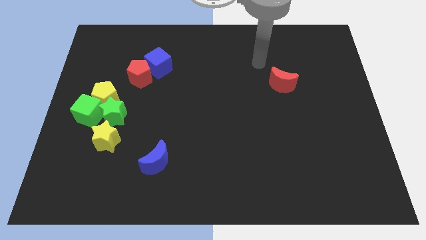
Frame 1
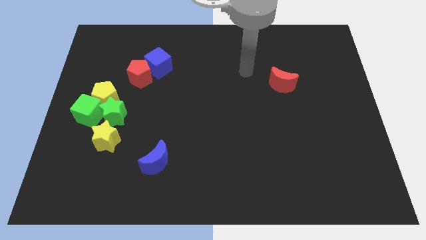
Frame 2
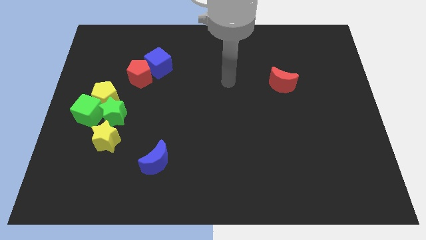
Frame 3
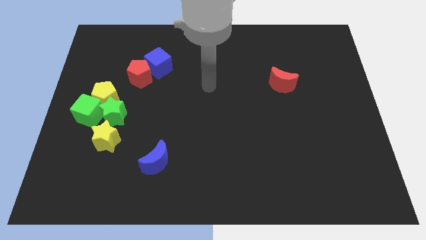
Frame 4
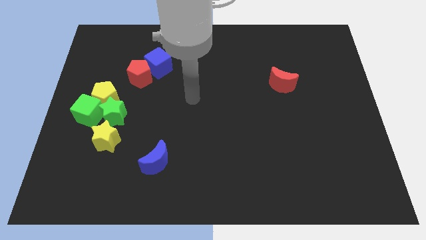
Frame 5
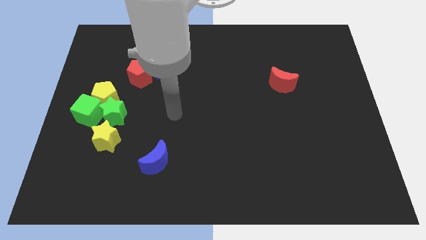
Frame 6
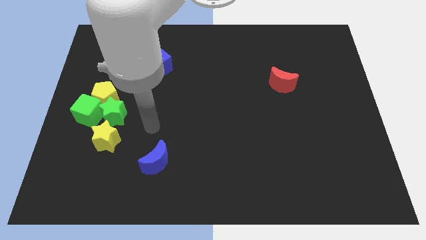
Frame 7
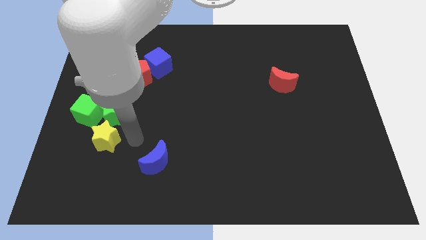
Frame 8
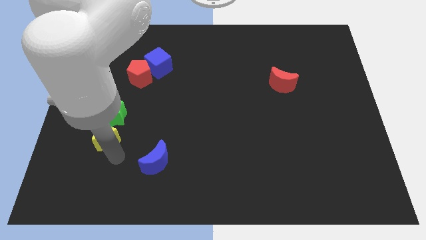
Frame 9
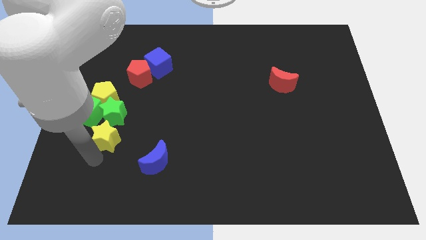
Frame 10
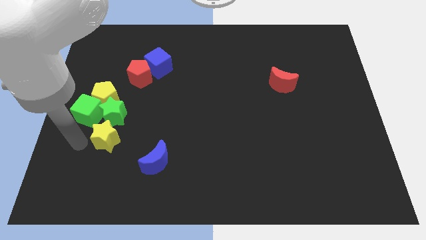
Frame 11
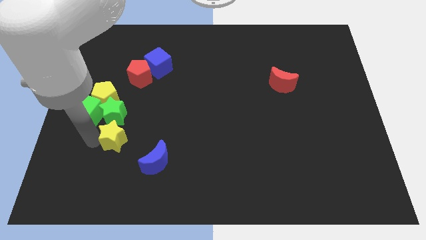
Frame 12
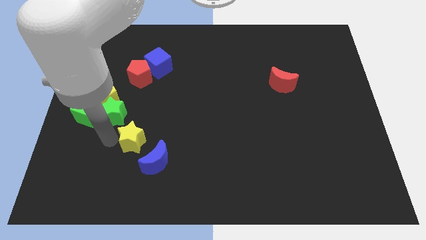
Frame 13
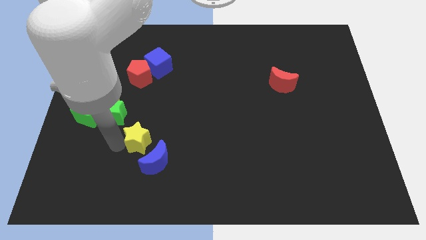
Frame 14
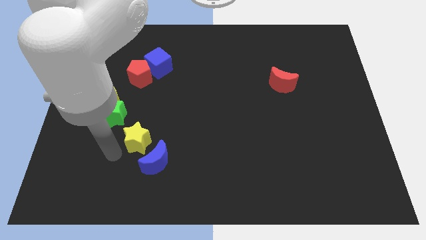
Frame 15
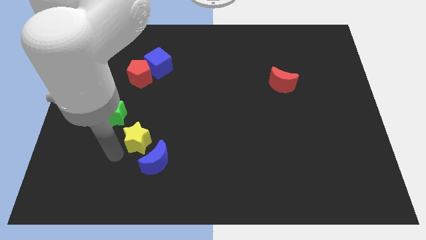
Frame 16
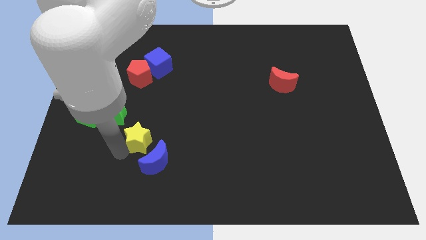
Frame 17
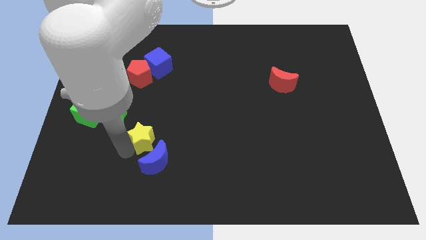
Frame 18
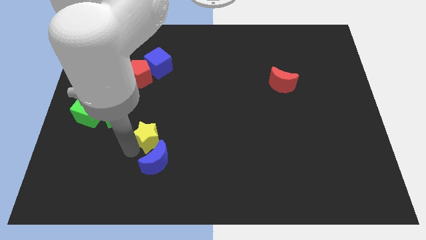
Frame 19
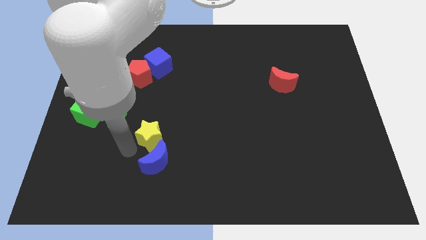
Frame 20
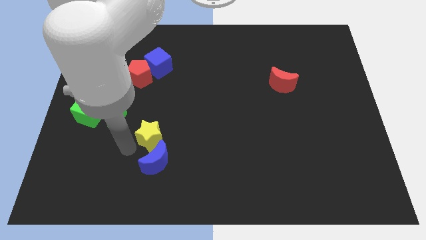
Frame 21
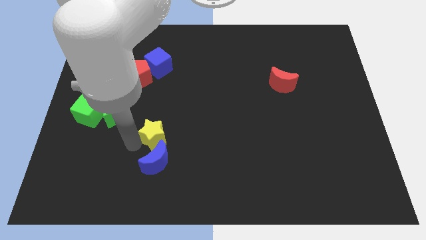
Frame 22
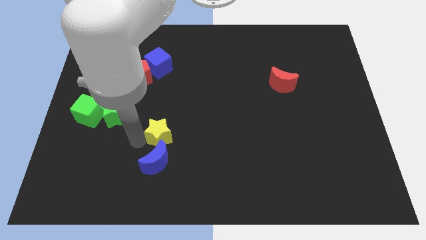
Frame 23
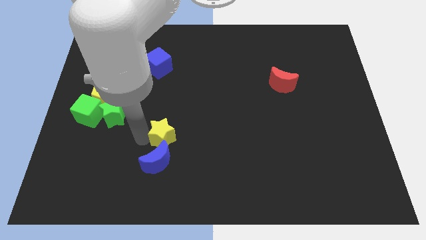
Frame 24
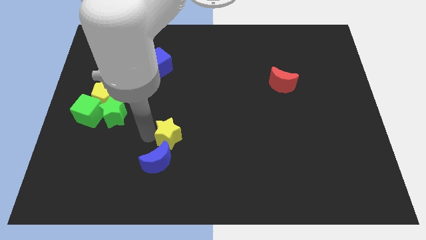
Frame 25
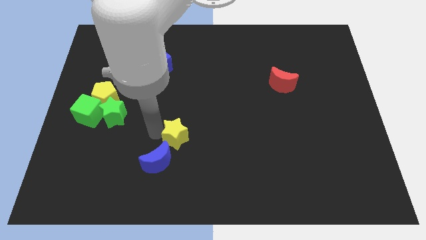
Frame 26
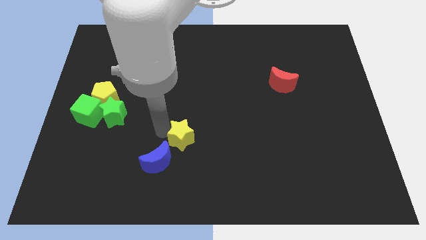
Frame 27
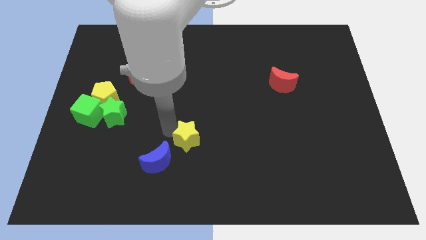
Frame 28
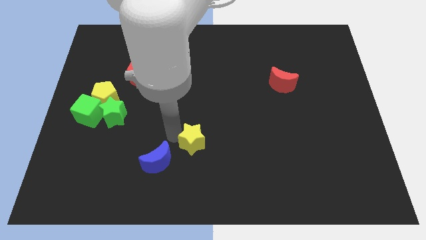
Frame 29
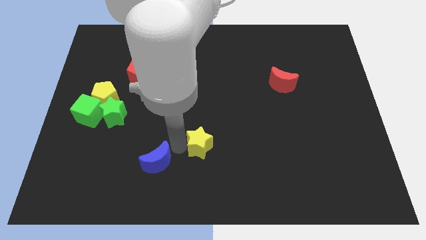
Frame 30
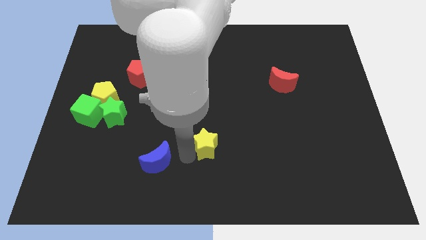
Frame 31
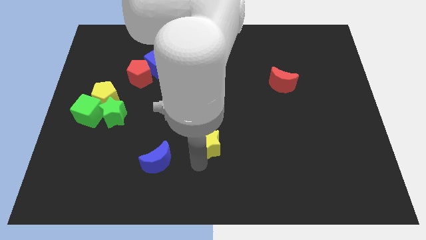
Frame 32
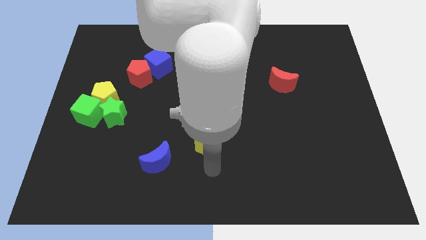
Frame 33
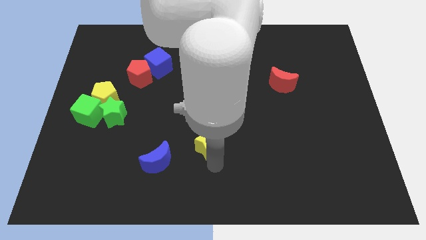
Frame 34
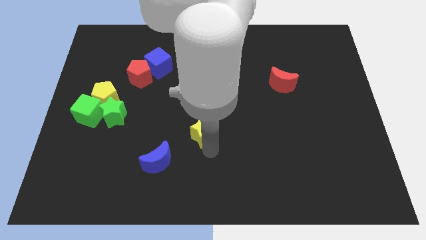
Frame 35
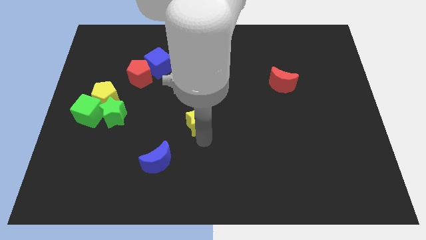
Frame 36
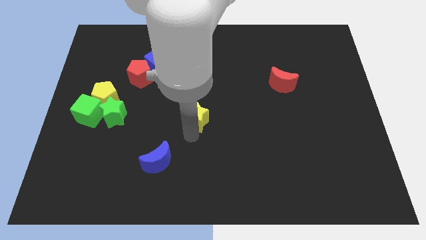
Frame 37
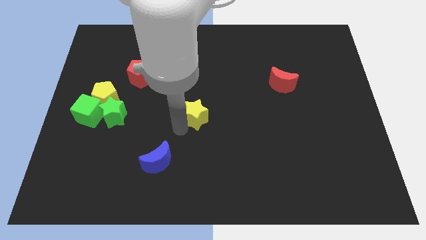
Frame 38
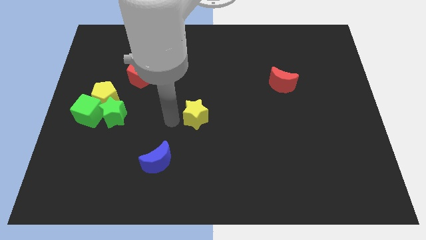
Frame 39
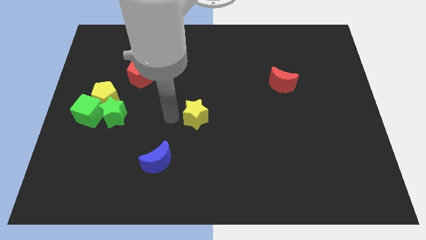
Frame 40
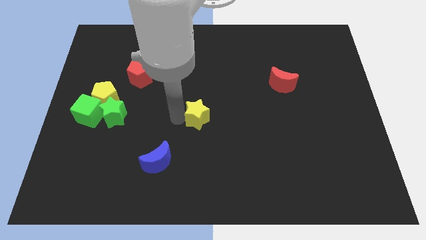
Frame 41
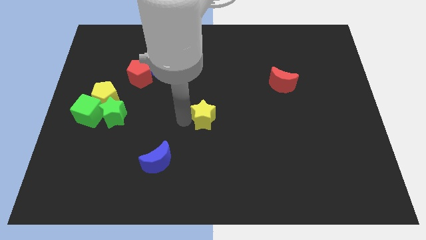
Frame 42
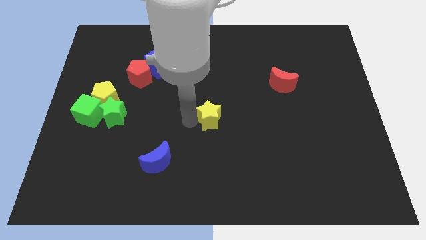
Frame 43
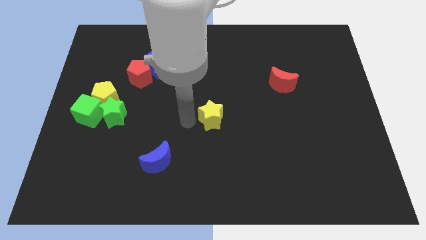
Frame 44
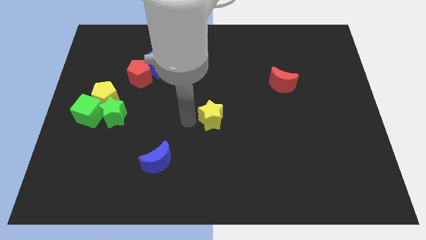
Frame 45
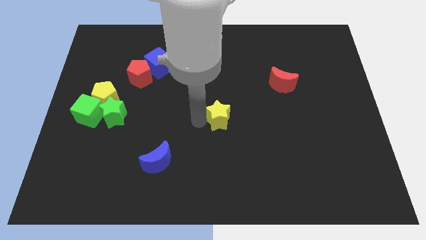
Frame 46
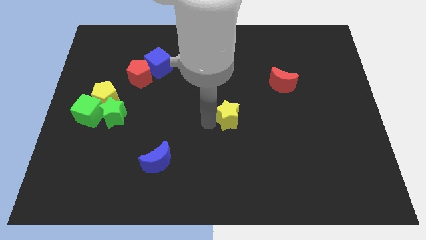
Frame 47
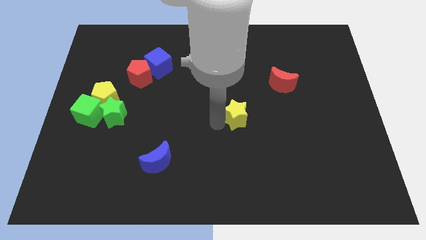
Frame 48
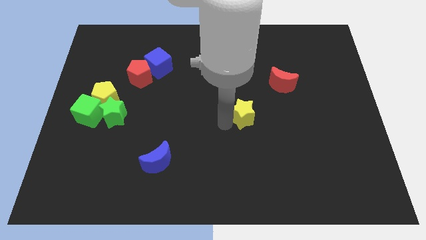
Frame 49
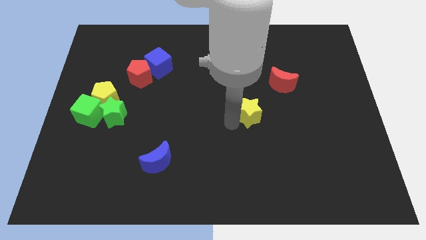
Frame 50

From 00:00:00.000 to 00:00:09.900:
move the yellow star diagonally down and to the left of the red moon

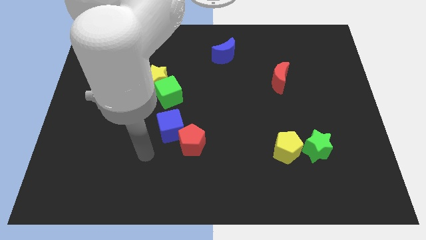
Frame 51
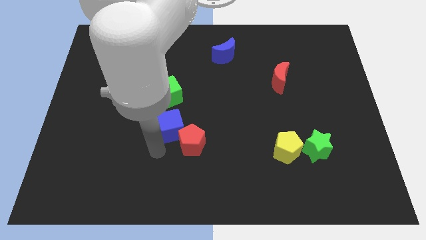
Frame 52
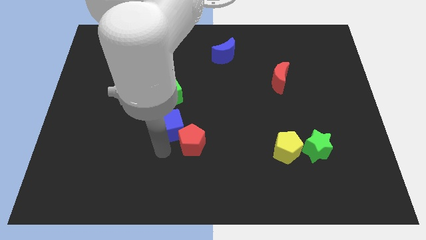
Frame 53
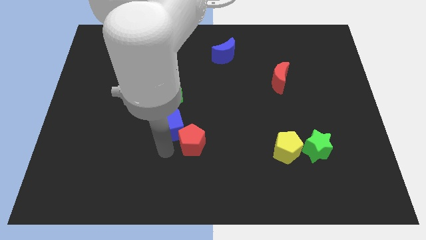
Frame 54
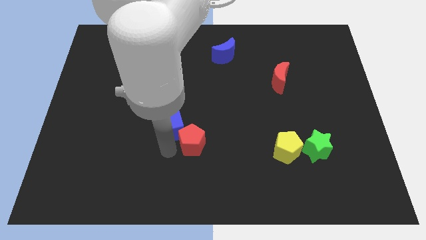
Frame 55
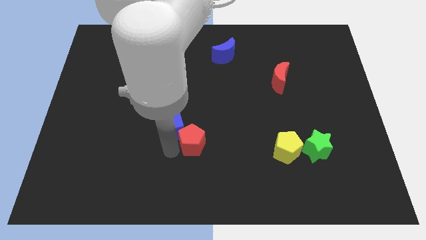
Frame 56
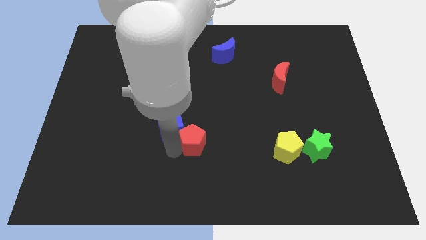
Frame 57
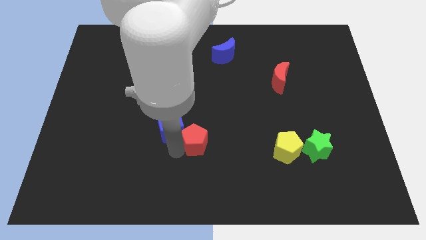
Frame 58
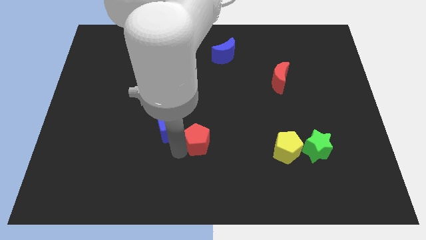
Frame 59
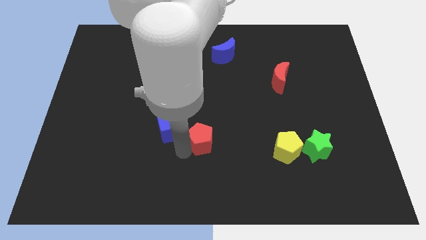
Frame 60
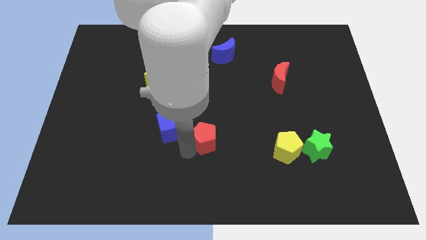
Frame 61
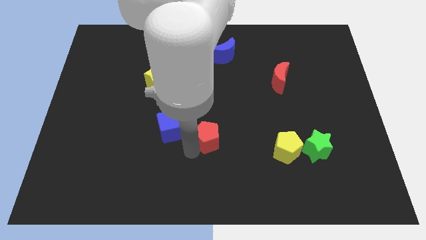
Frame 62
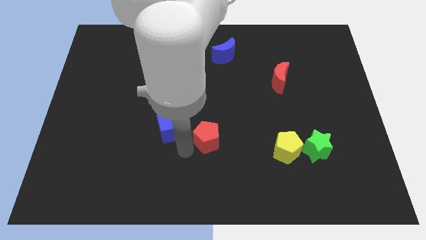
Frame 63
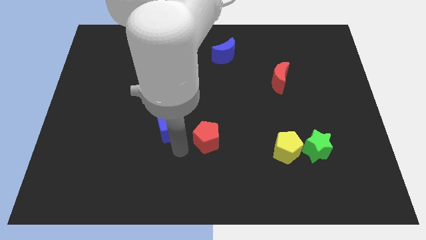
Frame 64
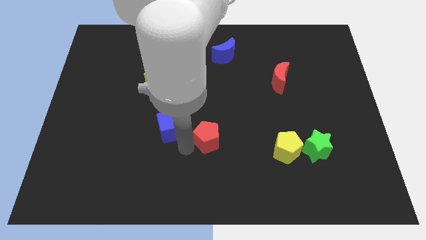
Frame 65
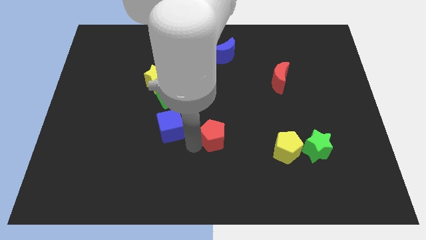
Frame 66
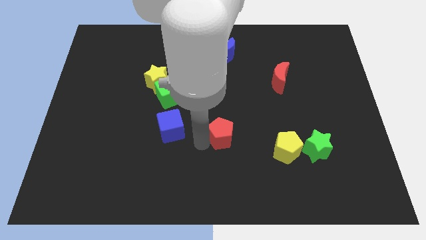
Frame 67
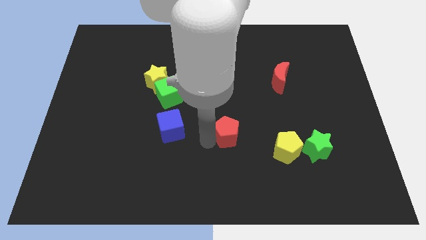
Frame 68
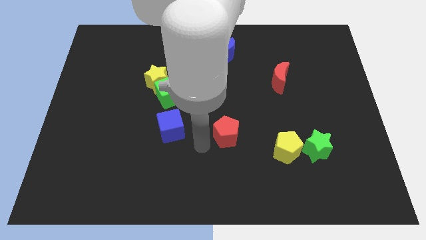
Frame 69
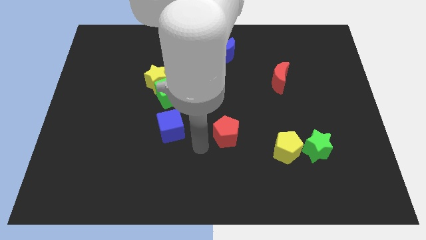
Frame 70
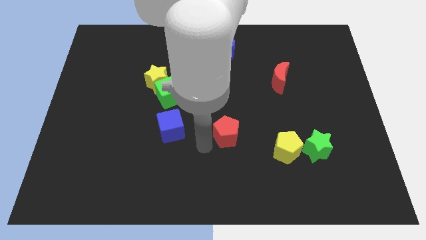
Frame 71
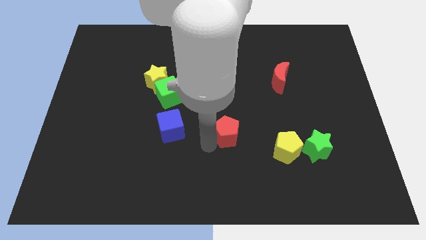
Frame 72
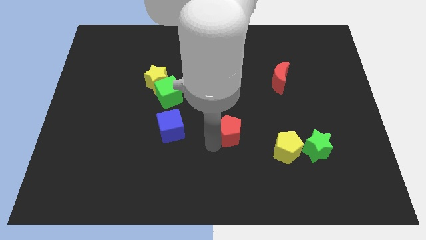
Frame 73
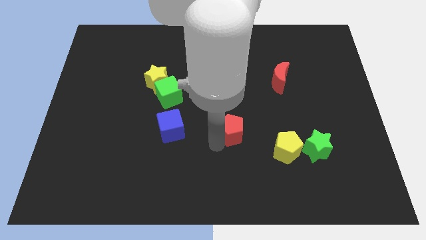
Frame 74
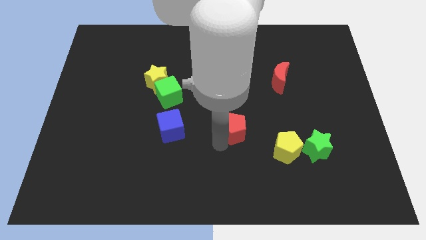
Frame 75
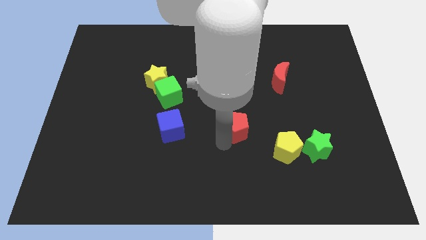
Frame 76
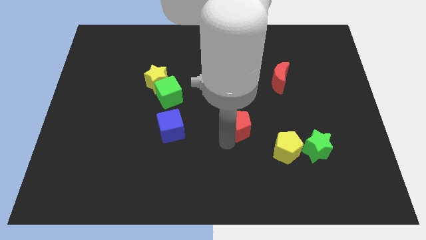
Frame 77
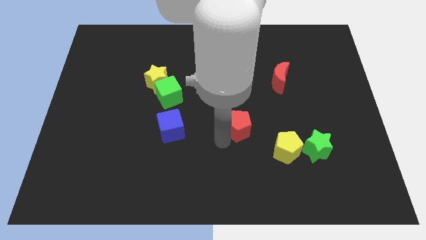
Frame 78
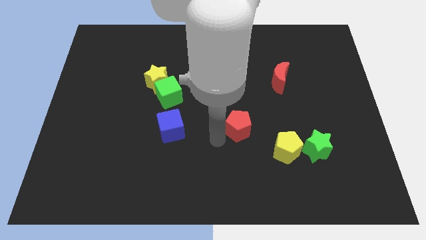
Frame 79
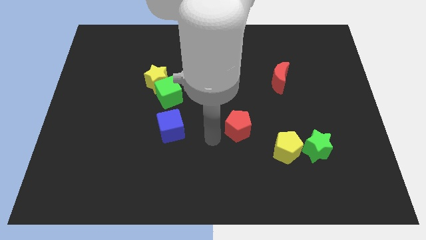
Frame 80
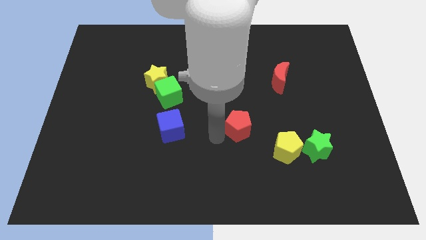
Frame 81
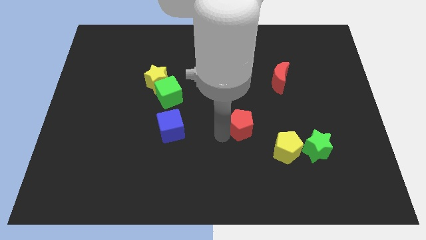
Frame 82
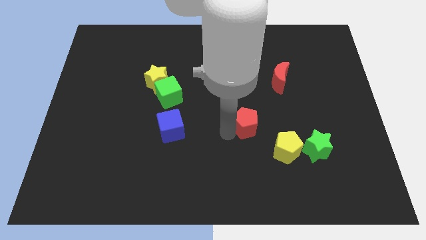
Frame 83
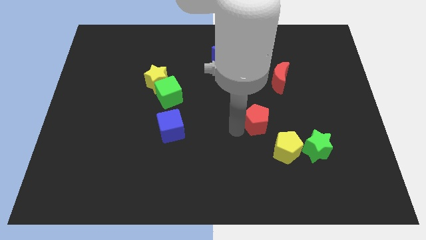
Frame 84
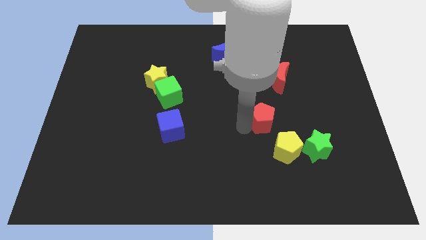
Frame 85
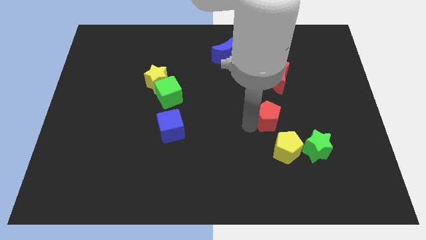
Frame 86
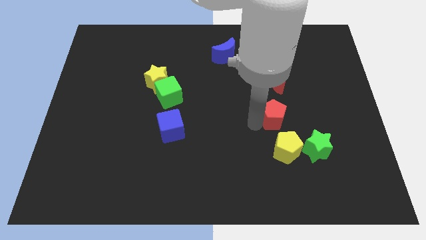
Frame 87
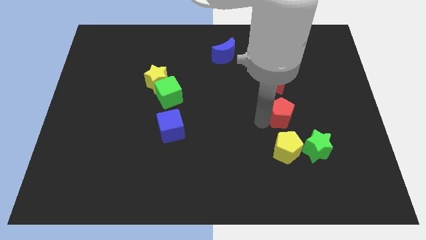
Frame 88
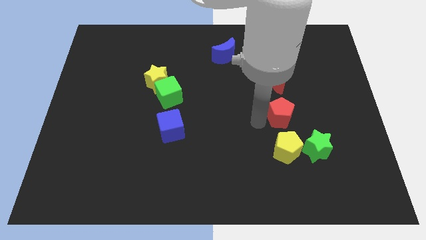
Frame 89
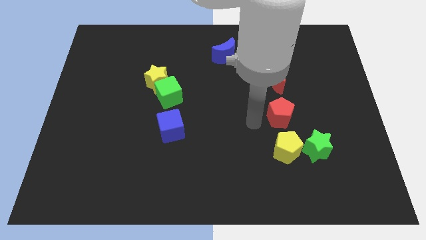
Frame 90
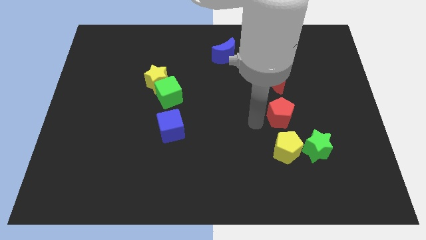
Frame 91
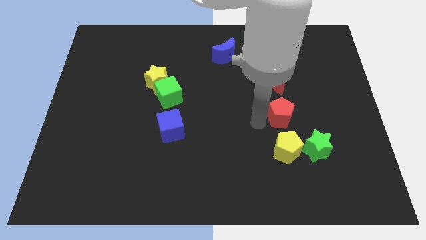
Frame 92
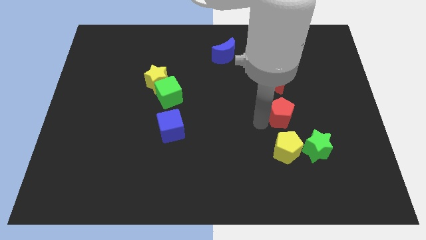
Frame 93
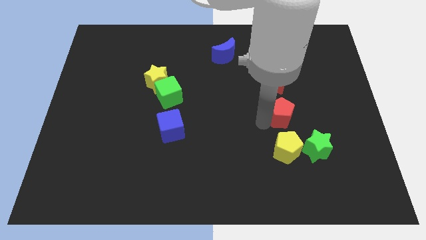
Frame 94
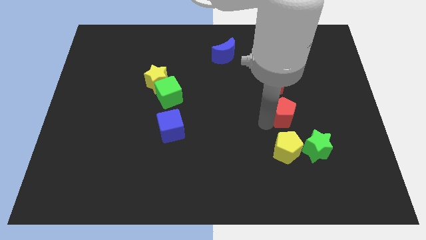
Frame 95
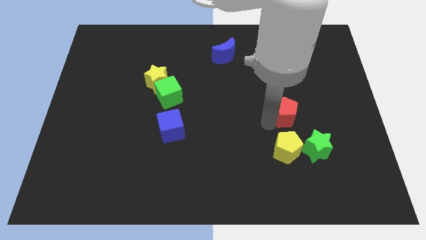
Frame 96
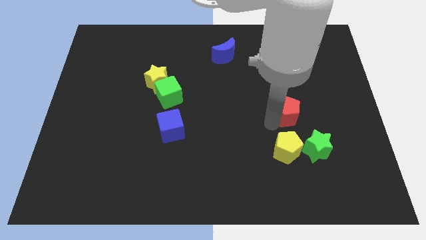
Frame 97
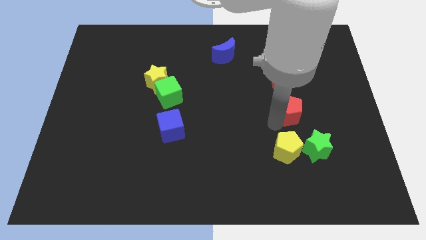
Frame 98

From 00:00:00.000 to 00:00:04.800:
slide the red pentagon to the top side of the green star
